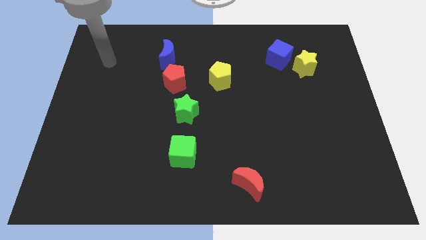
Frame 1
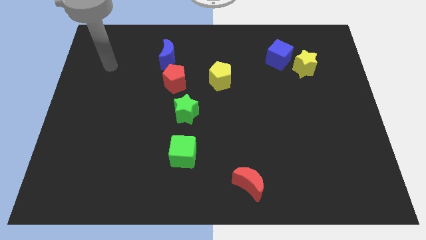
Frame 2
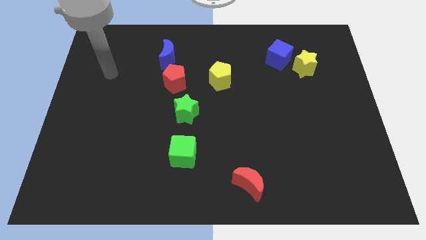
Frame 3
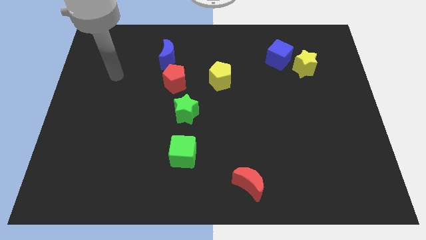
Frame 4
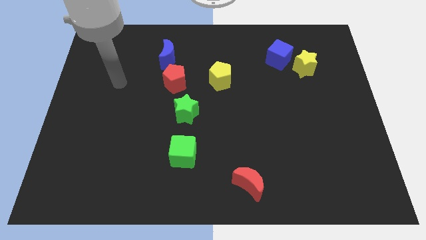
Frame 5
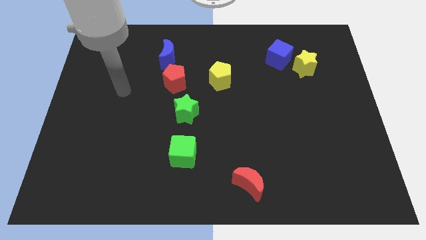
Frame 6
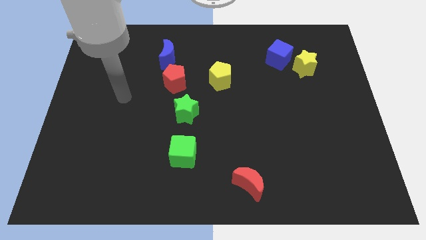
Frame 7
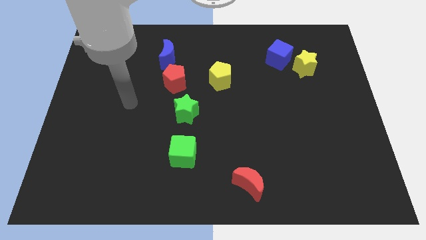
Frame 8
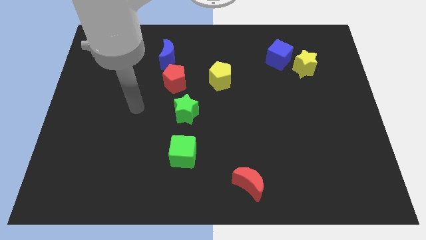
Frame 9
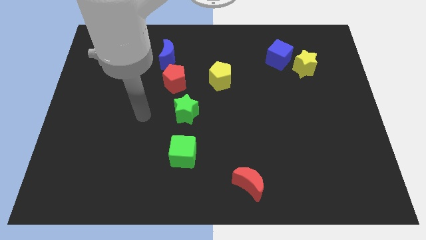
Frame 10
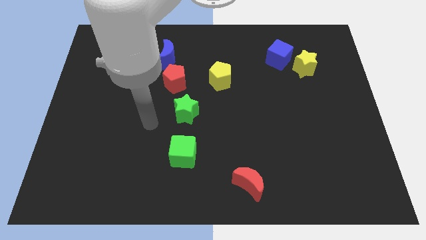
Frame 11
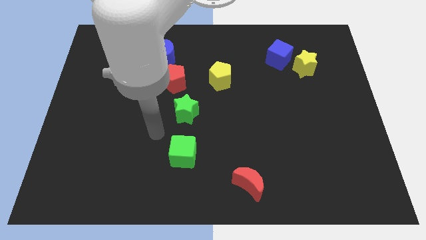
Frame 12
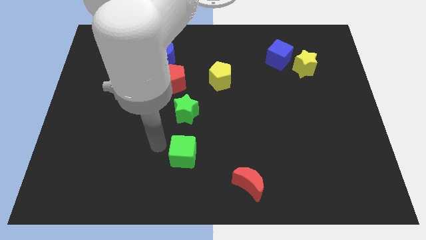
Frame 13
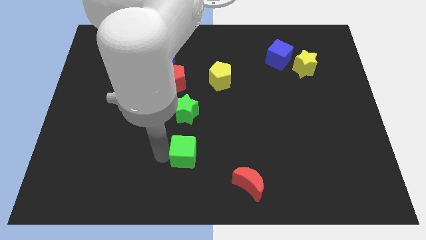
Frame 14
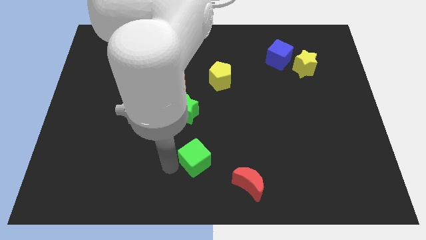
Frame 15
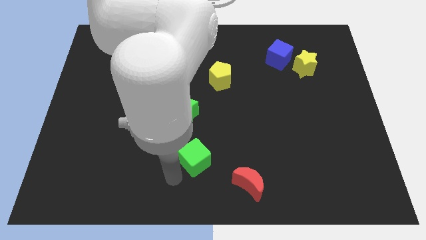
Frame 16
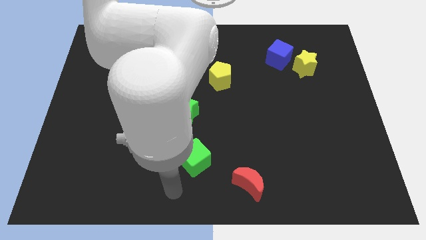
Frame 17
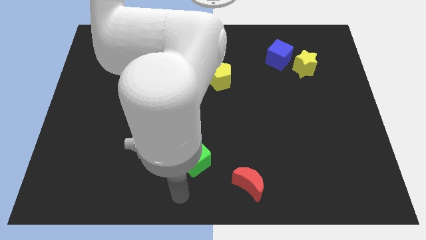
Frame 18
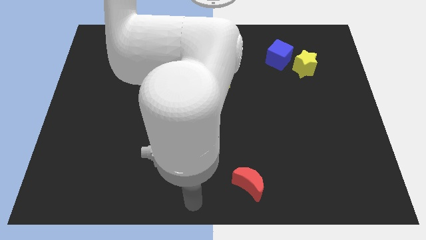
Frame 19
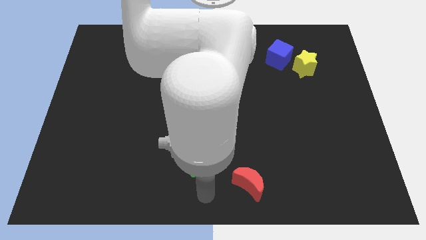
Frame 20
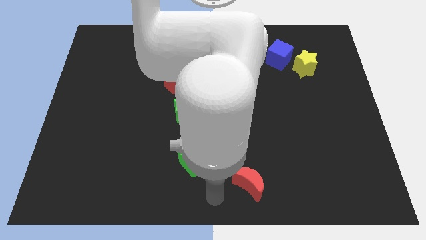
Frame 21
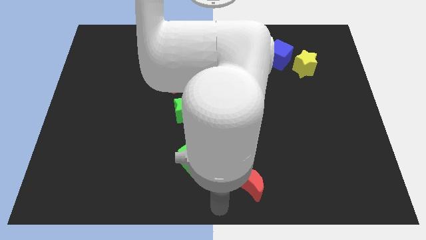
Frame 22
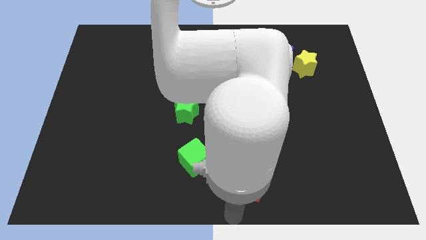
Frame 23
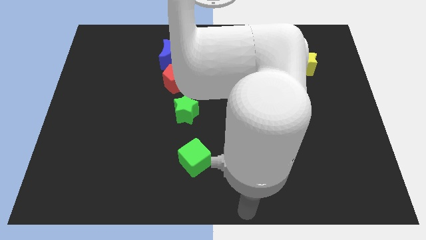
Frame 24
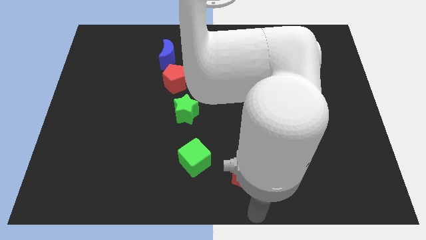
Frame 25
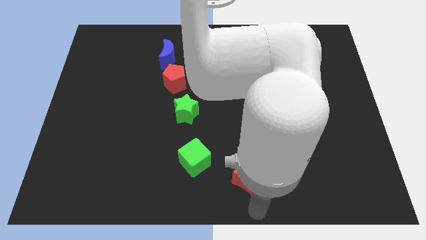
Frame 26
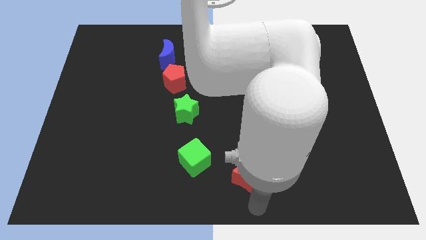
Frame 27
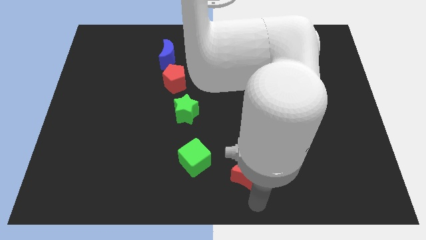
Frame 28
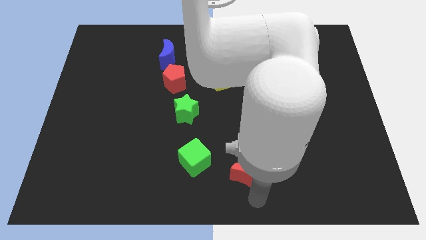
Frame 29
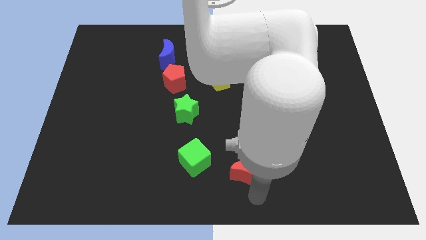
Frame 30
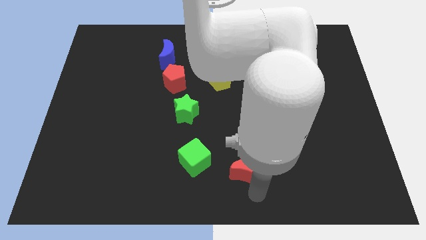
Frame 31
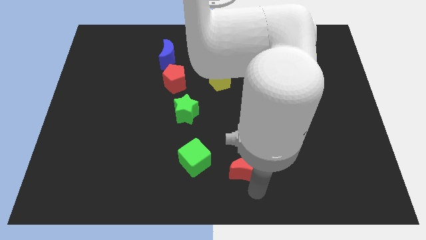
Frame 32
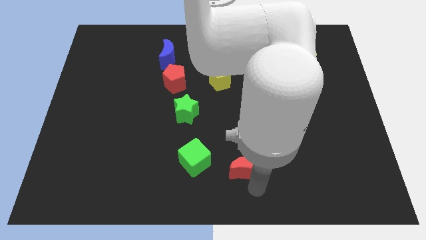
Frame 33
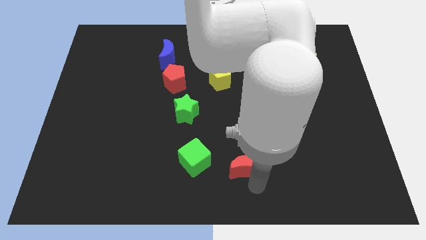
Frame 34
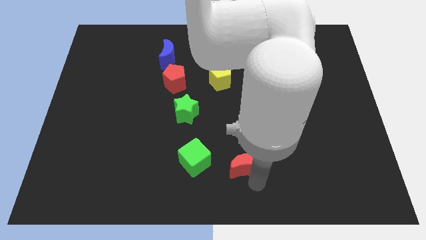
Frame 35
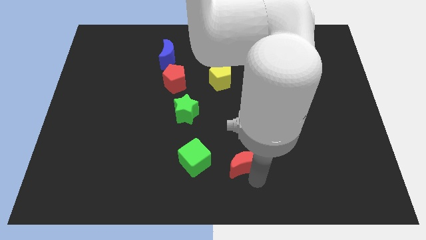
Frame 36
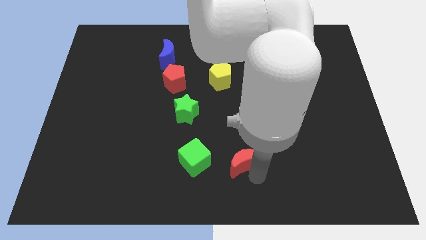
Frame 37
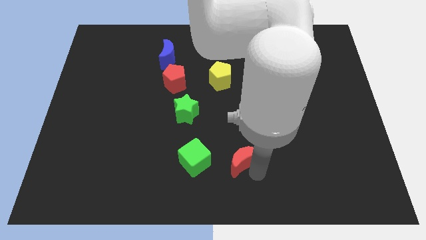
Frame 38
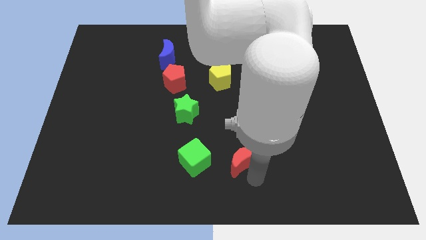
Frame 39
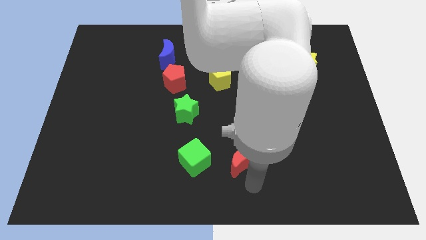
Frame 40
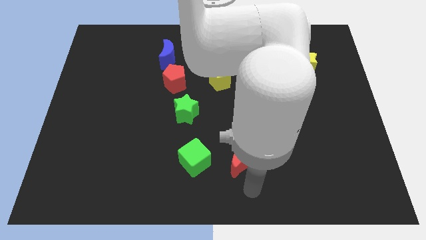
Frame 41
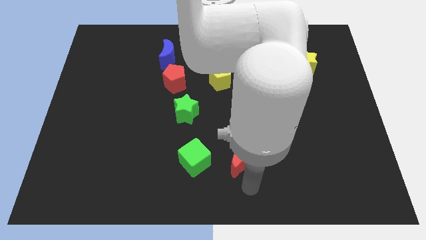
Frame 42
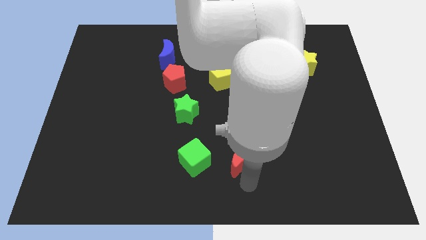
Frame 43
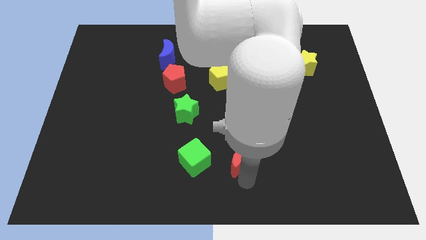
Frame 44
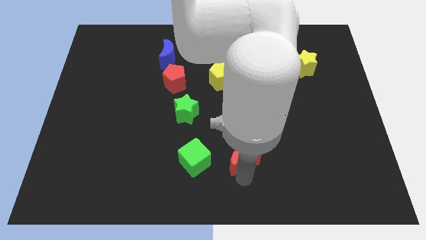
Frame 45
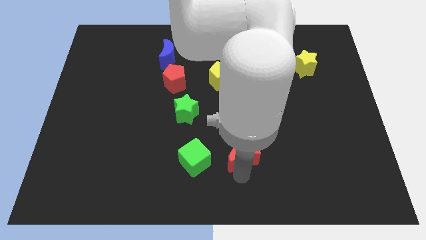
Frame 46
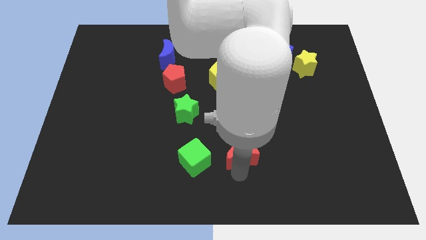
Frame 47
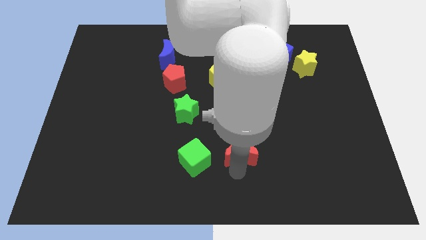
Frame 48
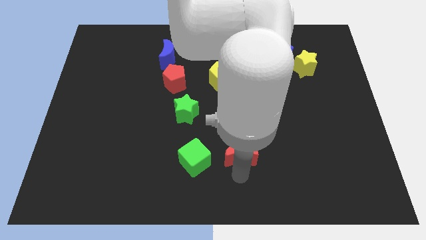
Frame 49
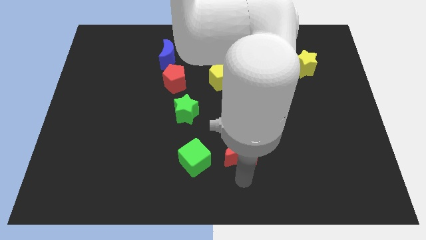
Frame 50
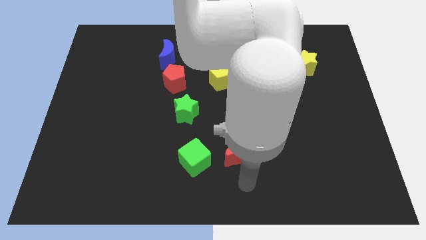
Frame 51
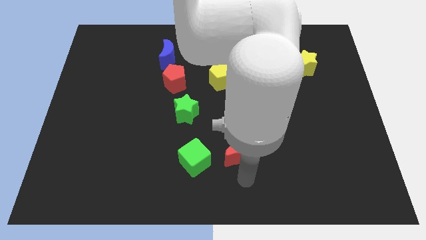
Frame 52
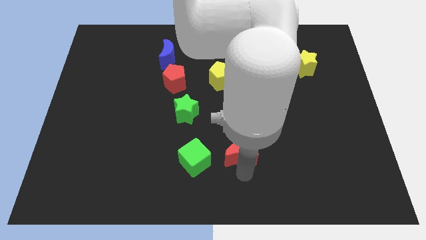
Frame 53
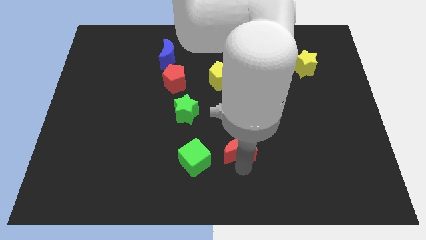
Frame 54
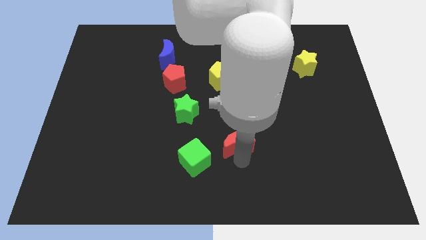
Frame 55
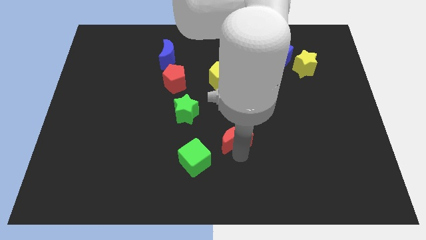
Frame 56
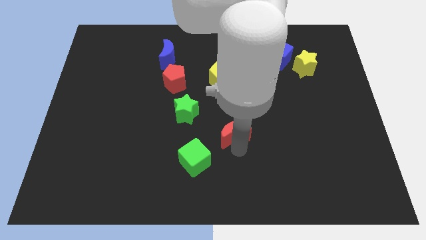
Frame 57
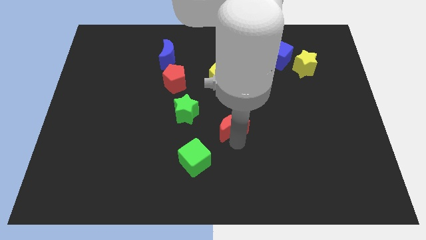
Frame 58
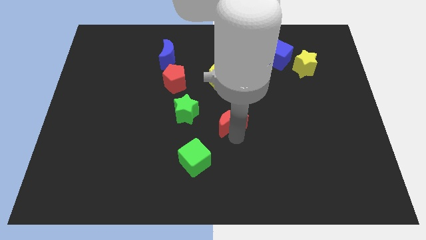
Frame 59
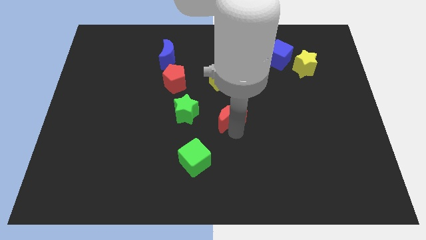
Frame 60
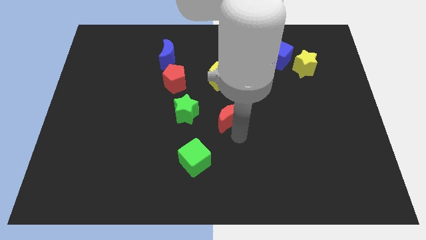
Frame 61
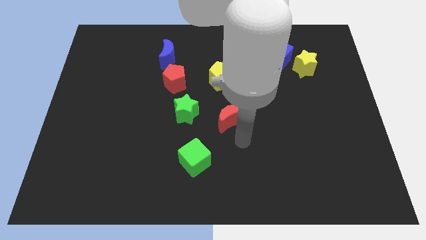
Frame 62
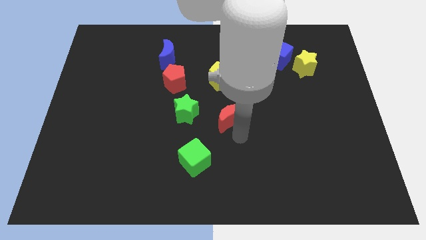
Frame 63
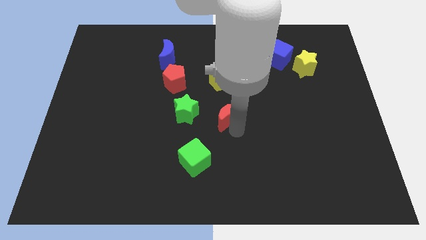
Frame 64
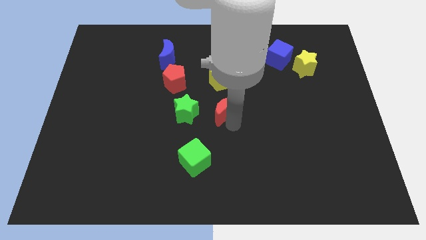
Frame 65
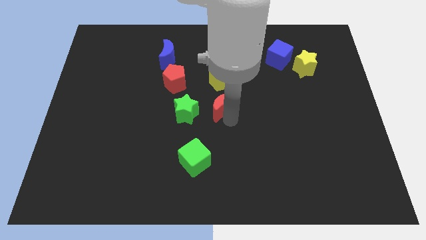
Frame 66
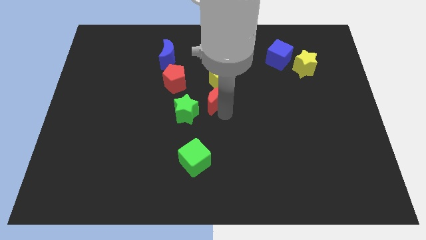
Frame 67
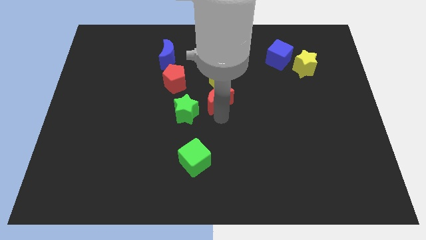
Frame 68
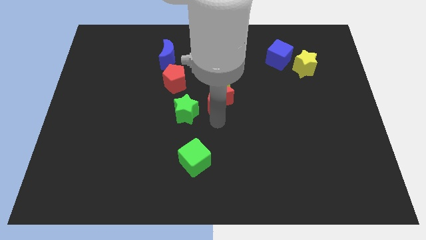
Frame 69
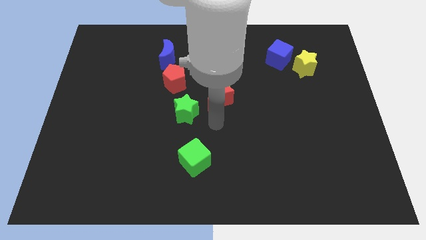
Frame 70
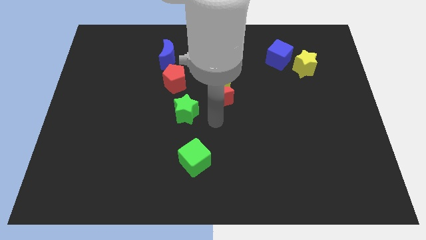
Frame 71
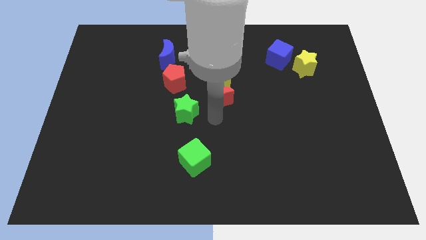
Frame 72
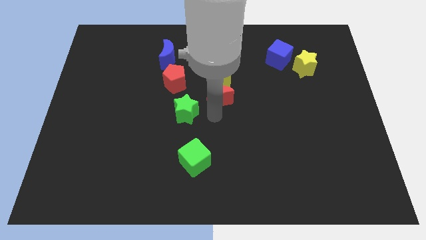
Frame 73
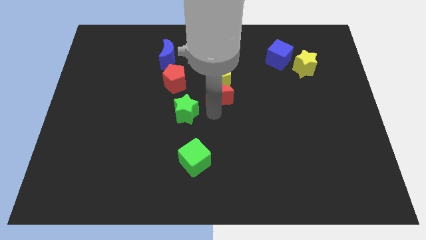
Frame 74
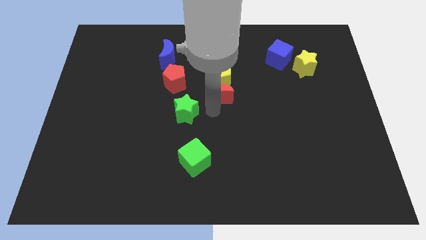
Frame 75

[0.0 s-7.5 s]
push the red moon next to the yellow pentagon
